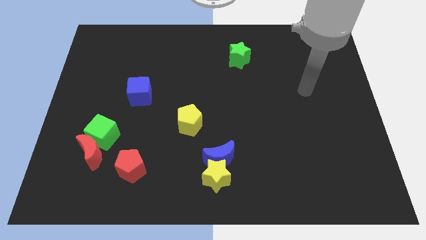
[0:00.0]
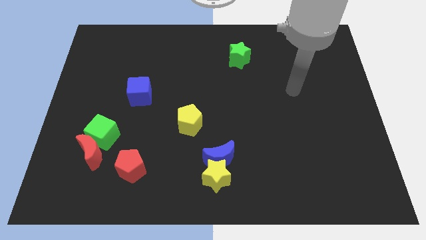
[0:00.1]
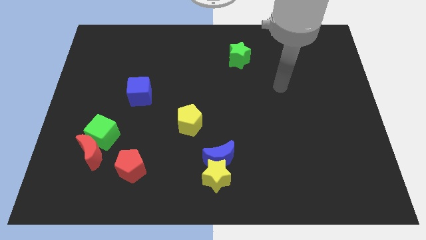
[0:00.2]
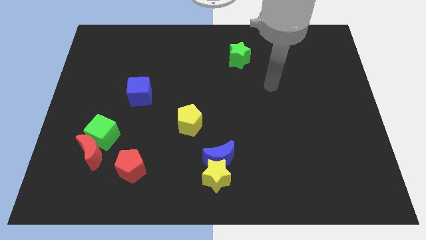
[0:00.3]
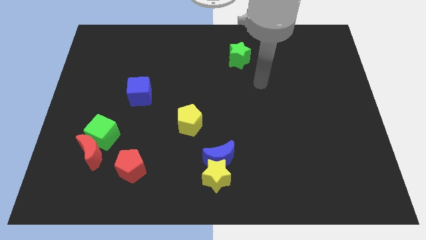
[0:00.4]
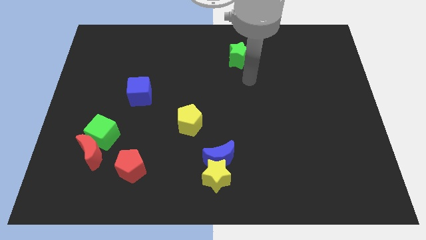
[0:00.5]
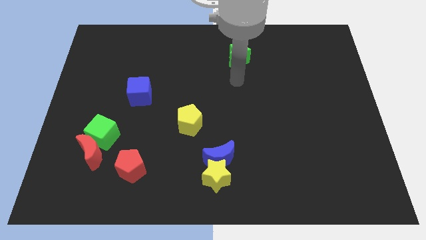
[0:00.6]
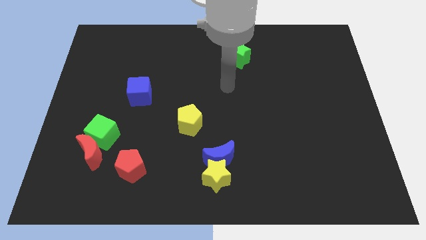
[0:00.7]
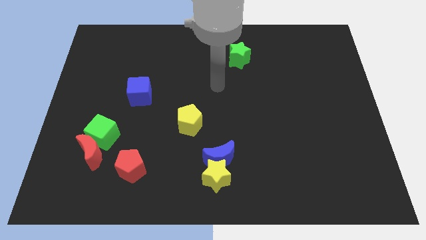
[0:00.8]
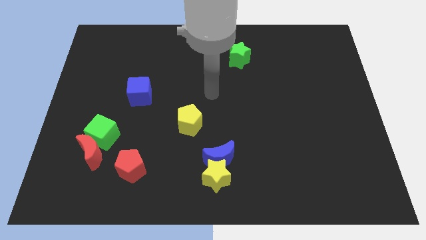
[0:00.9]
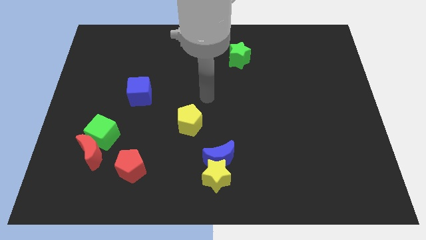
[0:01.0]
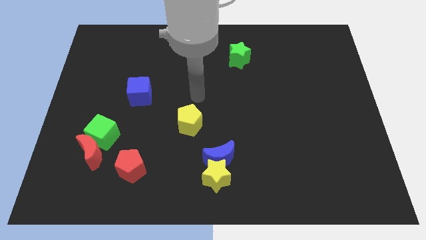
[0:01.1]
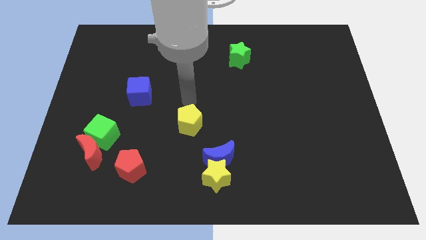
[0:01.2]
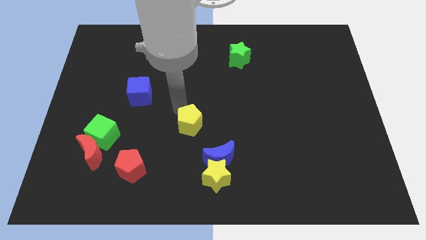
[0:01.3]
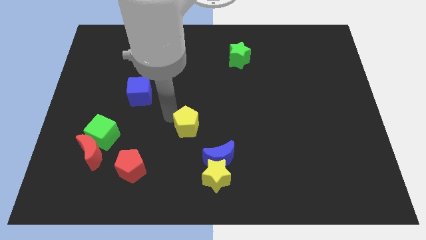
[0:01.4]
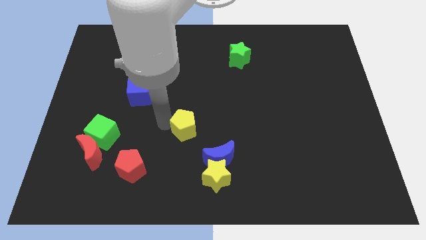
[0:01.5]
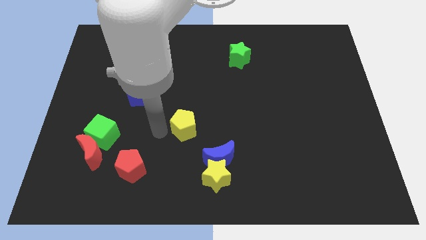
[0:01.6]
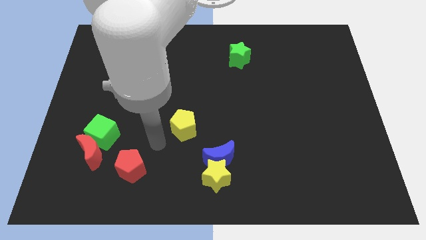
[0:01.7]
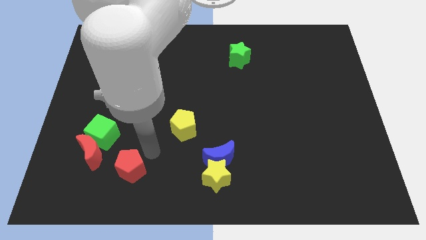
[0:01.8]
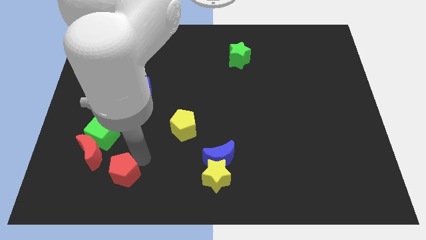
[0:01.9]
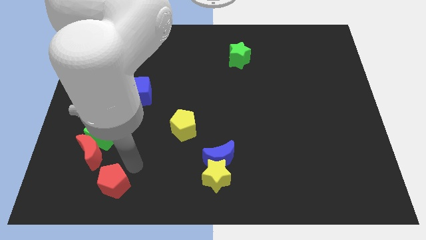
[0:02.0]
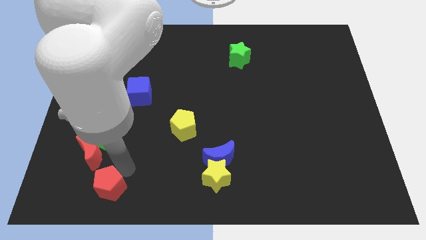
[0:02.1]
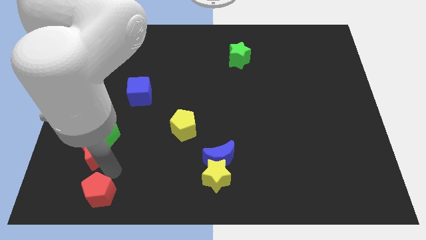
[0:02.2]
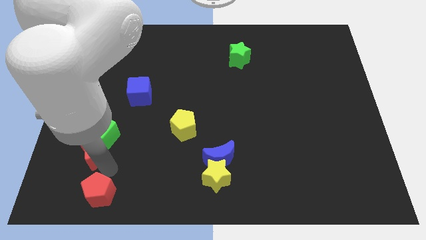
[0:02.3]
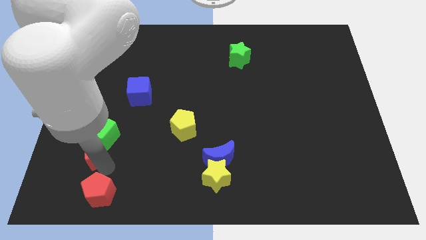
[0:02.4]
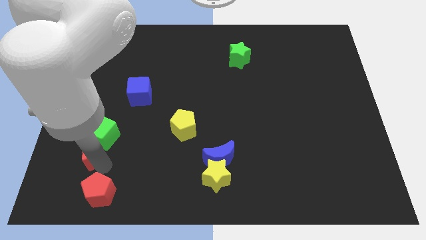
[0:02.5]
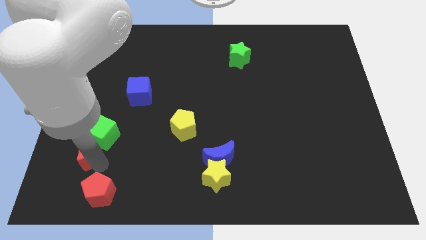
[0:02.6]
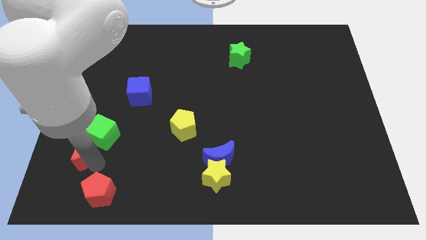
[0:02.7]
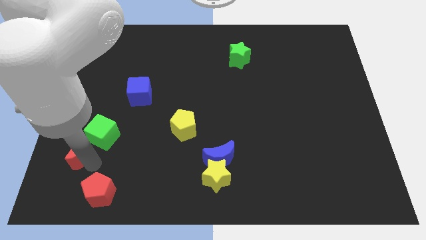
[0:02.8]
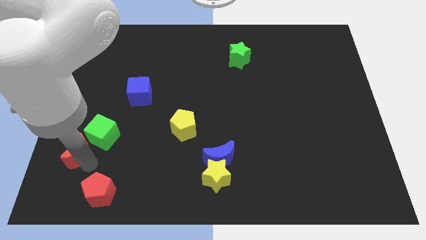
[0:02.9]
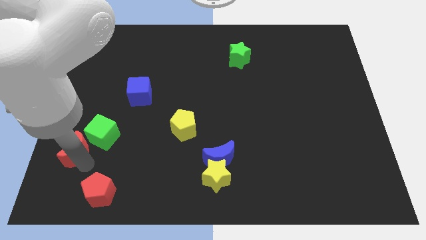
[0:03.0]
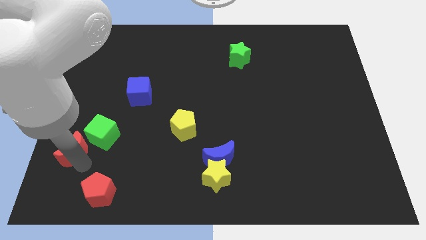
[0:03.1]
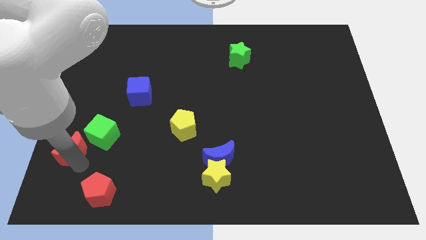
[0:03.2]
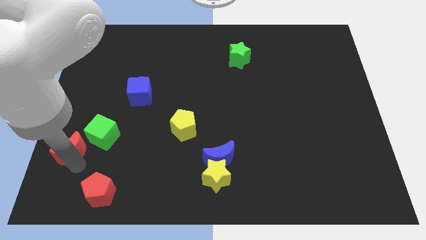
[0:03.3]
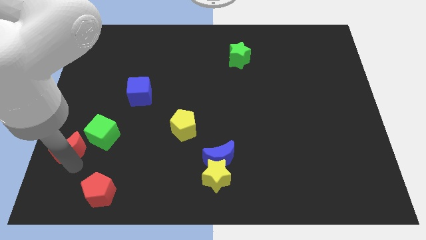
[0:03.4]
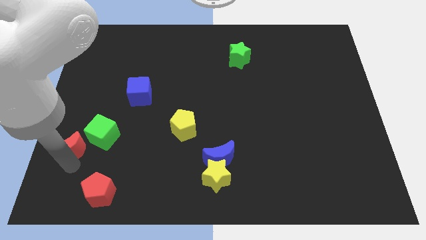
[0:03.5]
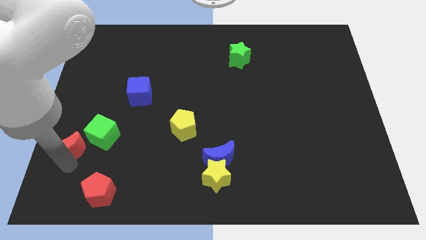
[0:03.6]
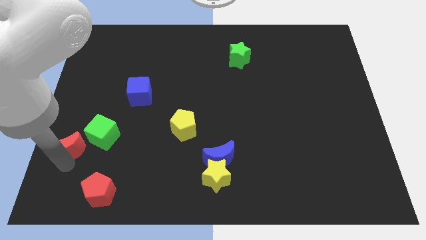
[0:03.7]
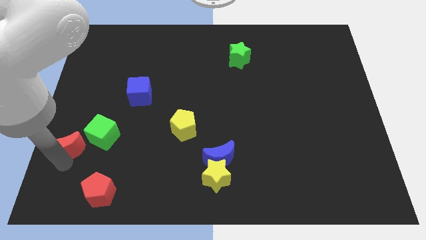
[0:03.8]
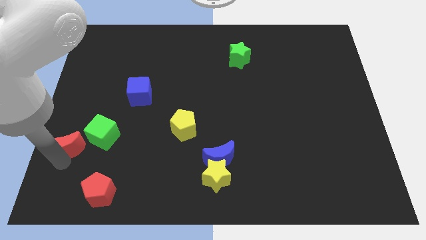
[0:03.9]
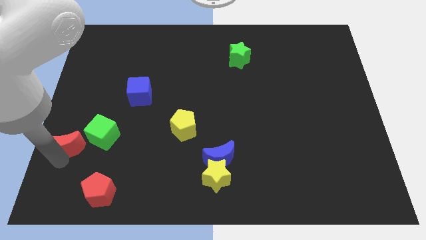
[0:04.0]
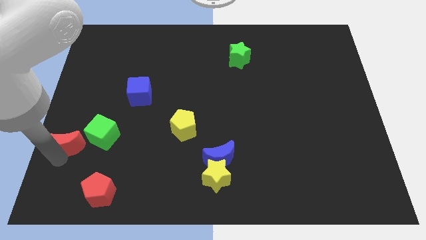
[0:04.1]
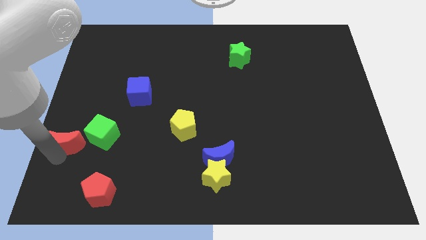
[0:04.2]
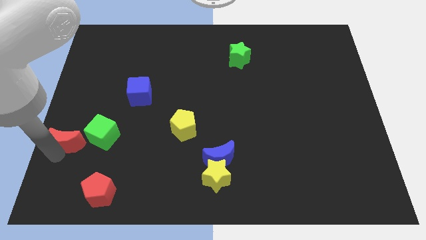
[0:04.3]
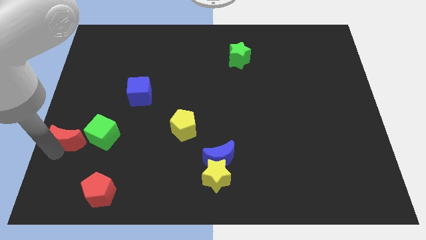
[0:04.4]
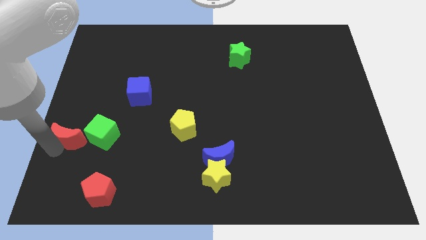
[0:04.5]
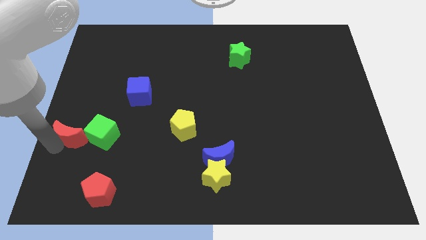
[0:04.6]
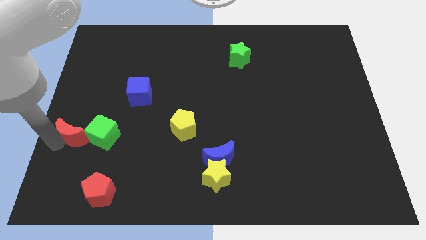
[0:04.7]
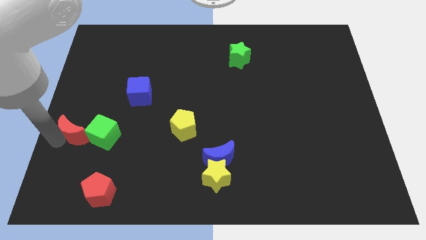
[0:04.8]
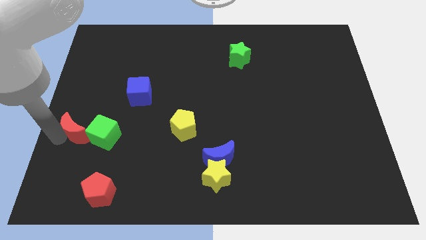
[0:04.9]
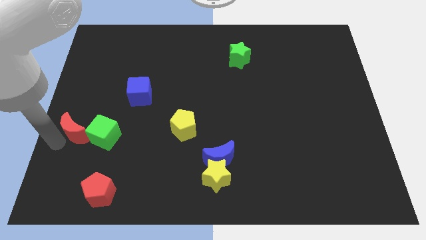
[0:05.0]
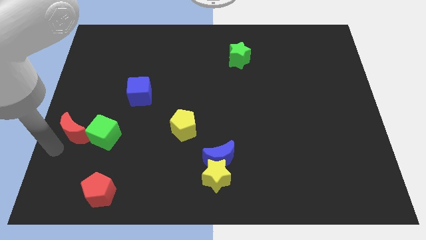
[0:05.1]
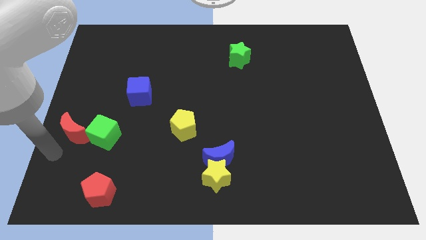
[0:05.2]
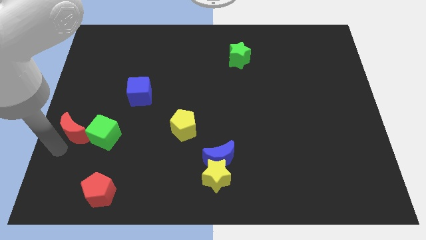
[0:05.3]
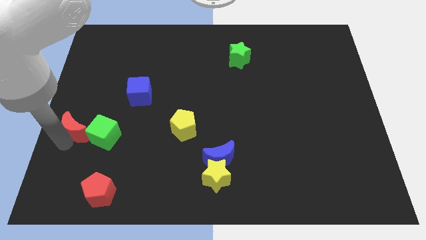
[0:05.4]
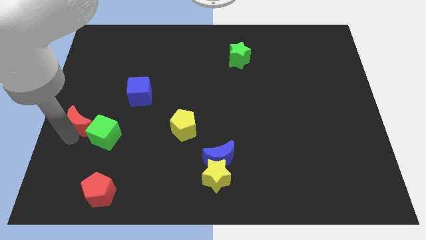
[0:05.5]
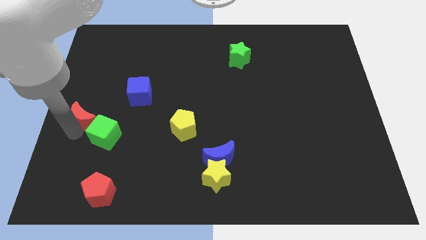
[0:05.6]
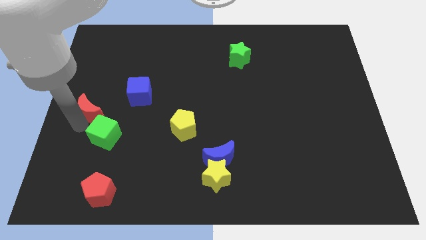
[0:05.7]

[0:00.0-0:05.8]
put the red moon to the top side of the green cube

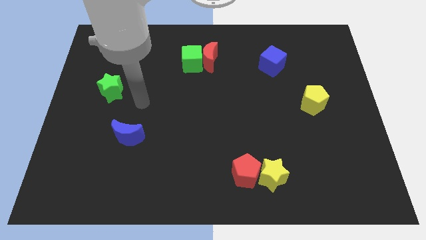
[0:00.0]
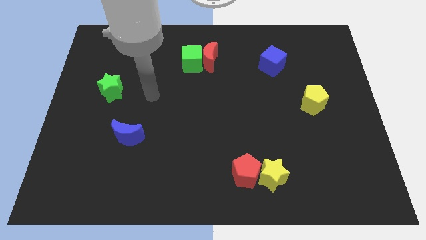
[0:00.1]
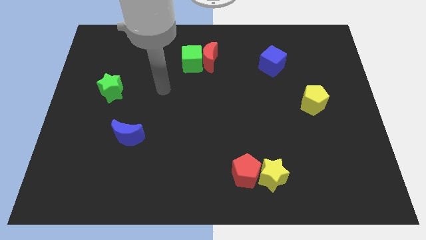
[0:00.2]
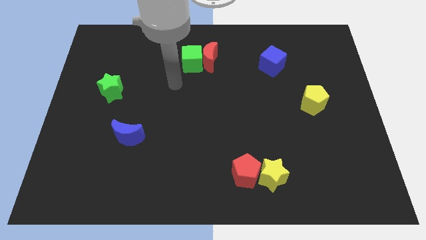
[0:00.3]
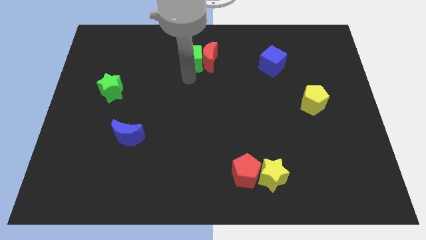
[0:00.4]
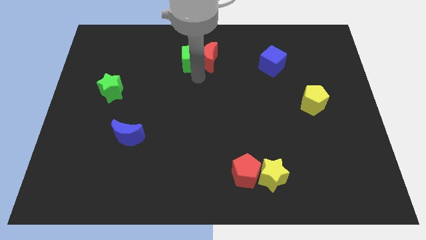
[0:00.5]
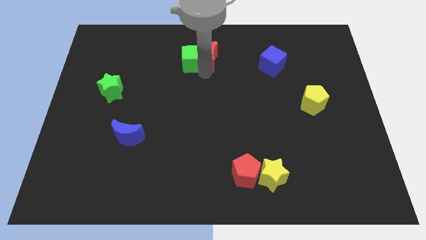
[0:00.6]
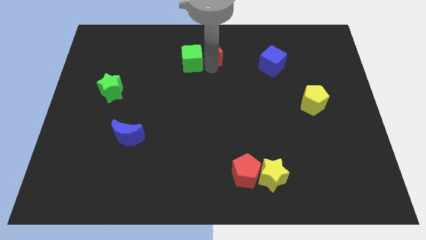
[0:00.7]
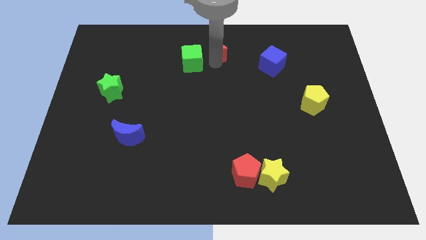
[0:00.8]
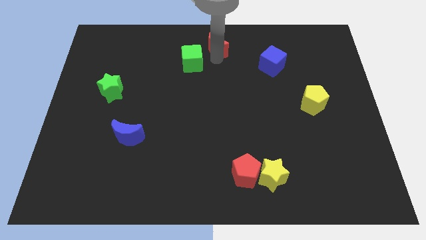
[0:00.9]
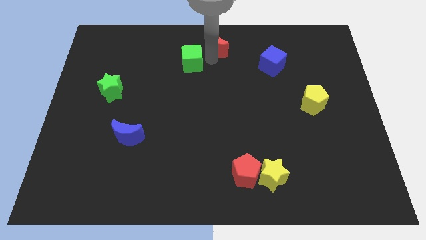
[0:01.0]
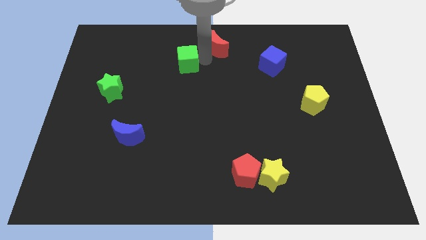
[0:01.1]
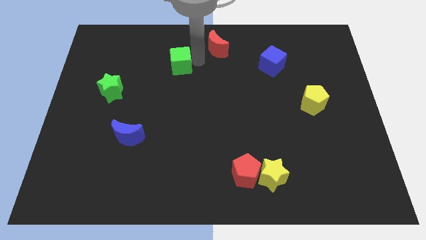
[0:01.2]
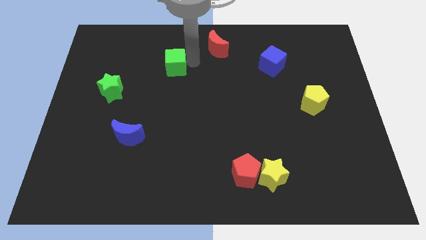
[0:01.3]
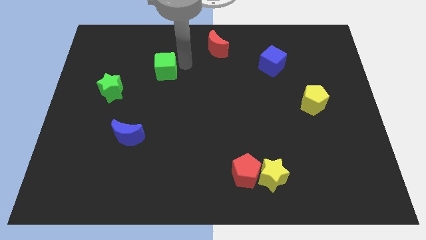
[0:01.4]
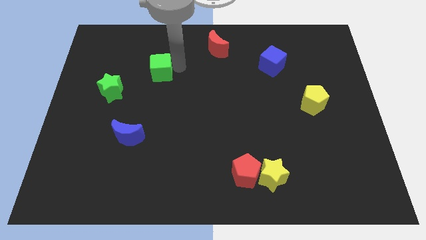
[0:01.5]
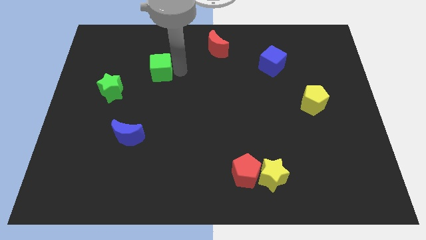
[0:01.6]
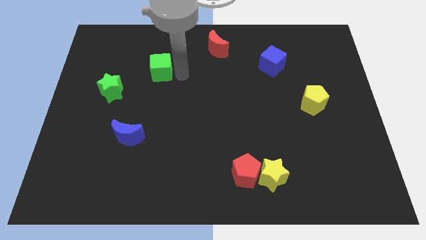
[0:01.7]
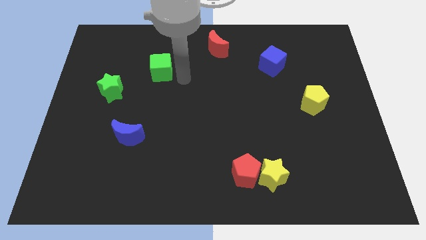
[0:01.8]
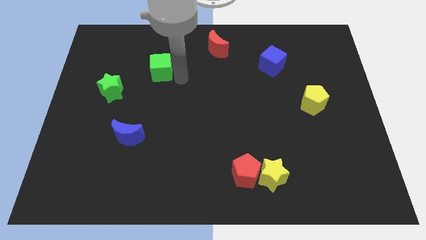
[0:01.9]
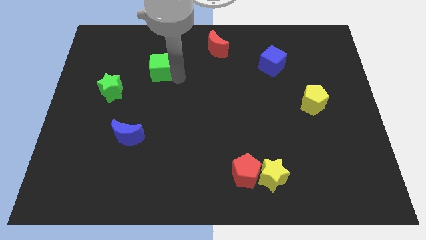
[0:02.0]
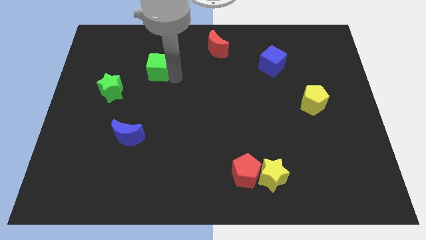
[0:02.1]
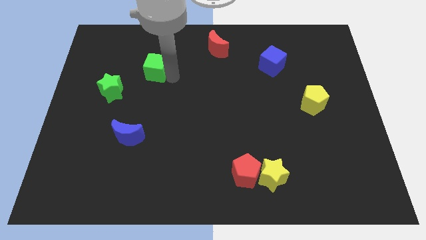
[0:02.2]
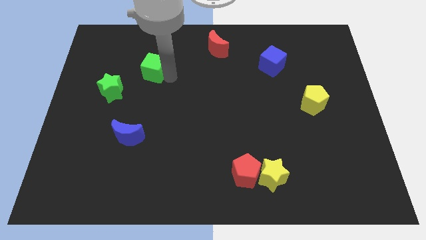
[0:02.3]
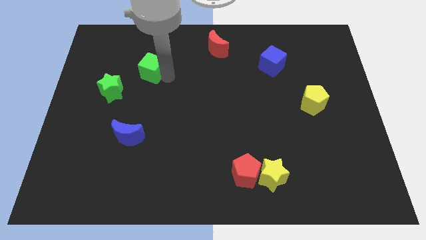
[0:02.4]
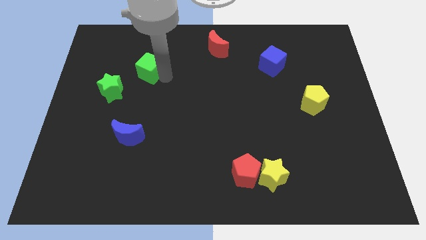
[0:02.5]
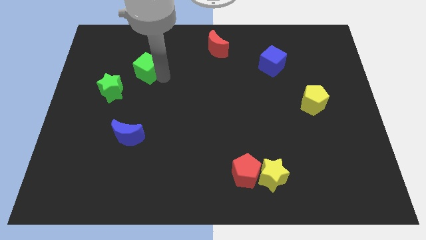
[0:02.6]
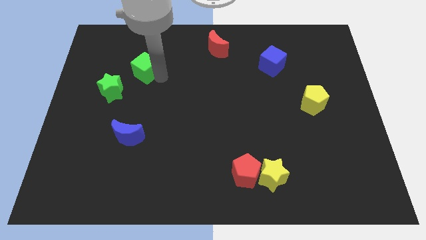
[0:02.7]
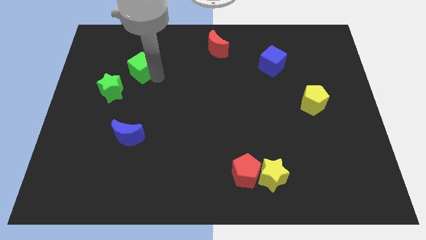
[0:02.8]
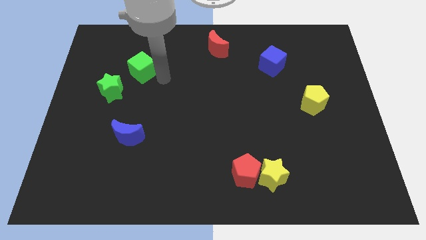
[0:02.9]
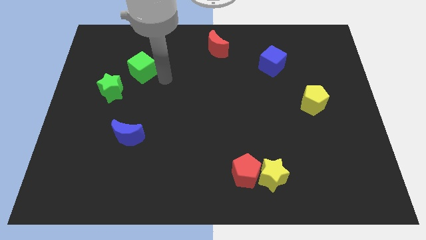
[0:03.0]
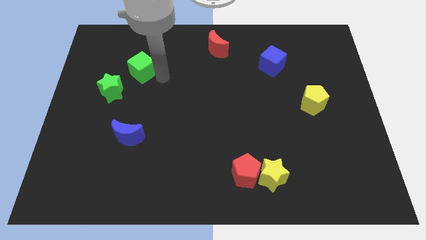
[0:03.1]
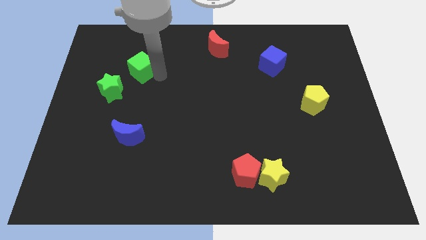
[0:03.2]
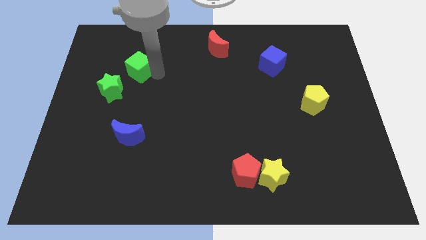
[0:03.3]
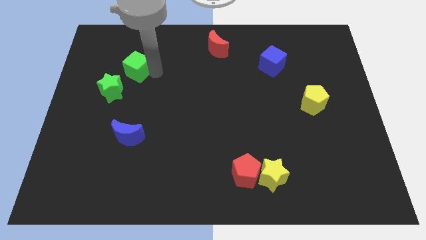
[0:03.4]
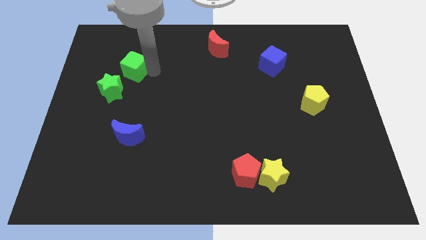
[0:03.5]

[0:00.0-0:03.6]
move the green cube to the top side of the green star
